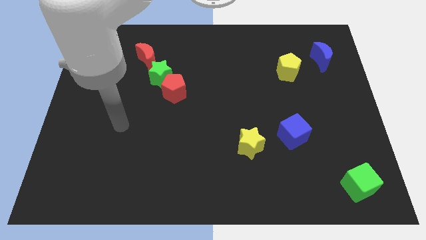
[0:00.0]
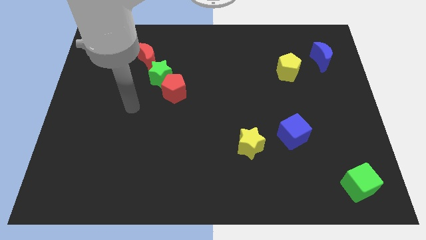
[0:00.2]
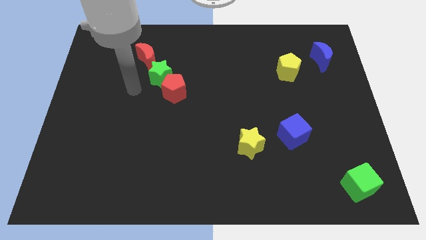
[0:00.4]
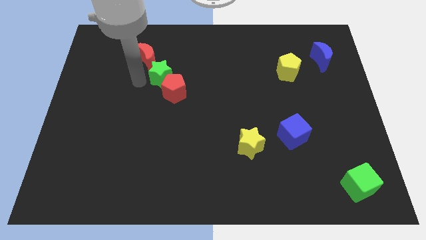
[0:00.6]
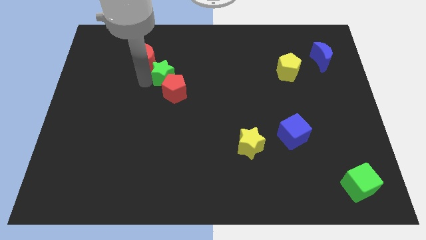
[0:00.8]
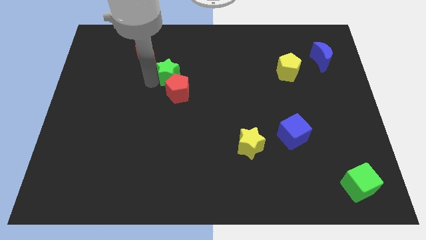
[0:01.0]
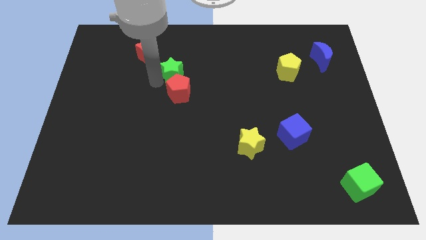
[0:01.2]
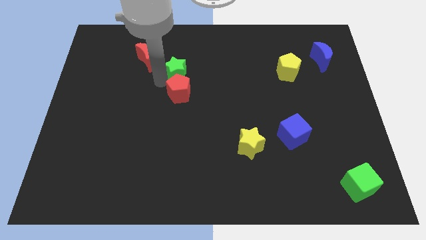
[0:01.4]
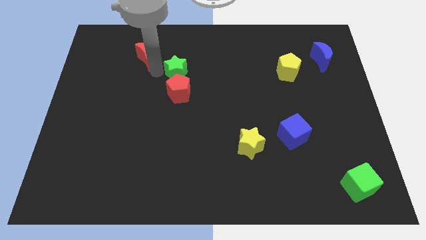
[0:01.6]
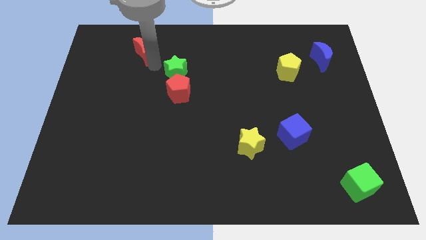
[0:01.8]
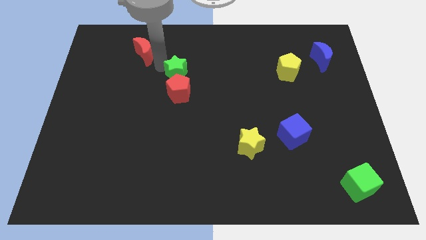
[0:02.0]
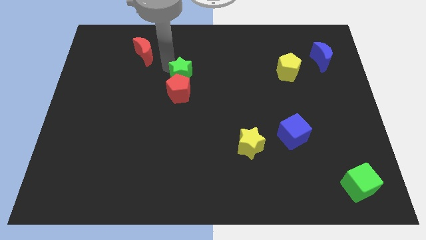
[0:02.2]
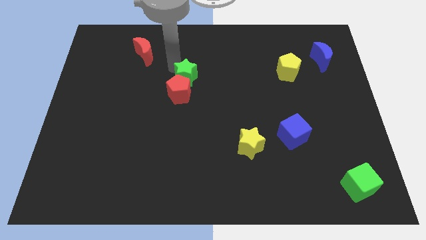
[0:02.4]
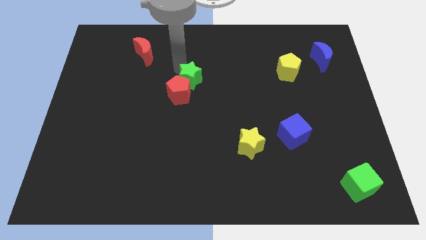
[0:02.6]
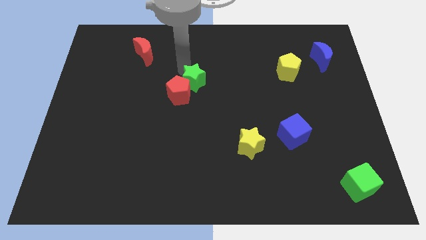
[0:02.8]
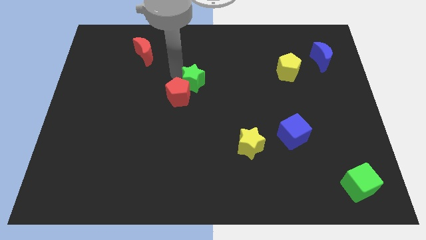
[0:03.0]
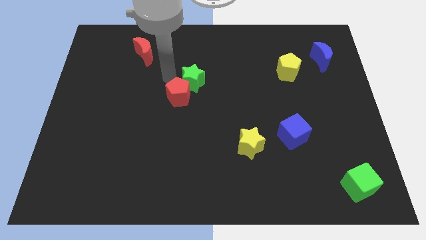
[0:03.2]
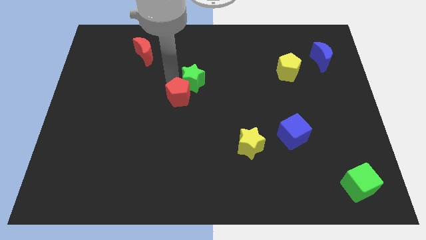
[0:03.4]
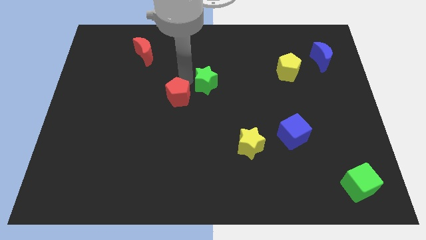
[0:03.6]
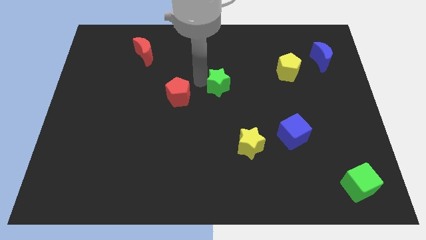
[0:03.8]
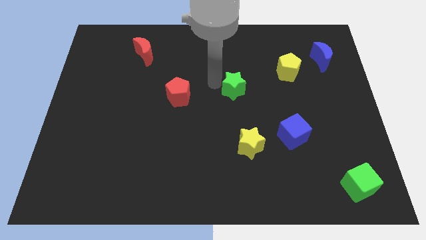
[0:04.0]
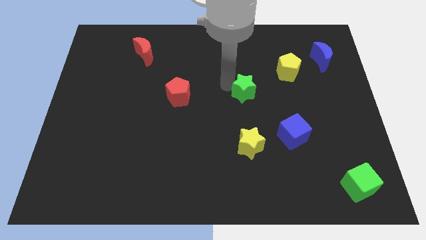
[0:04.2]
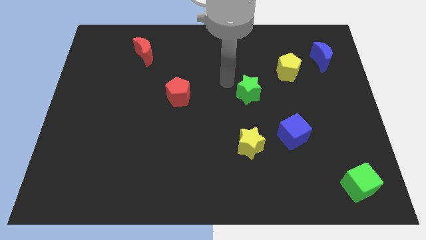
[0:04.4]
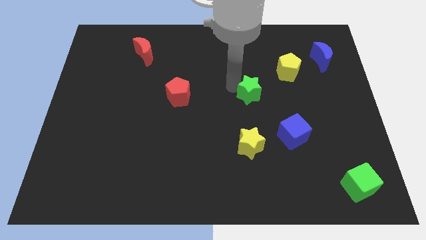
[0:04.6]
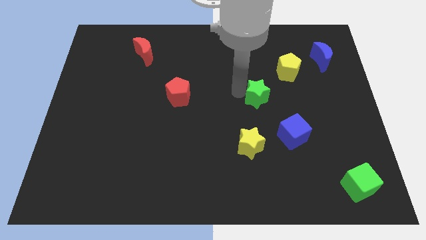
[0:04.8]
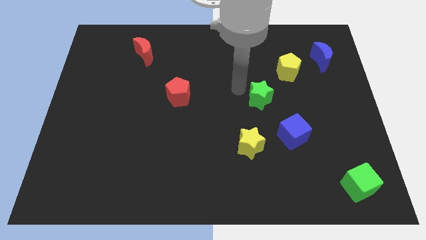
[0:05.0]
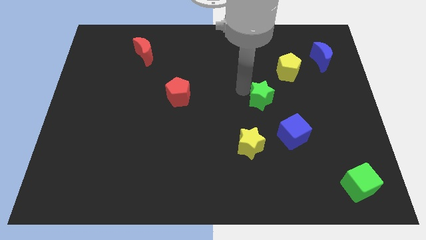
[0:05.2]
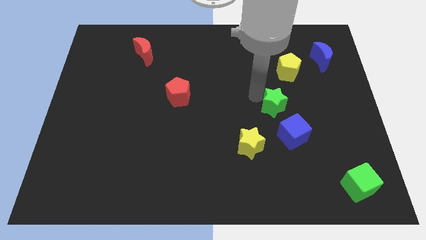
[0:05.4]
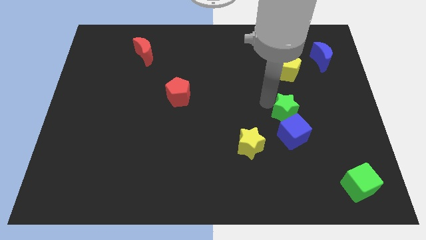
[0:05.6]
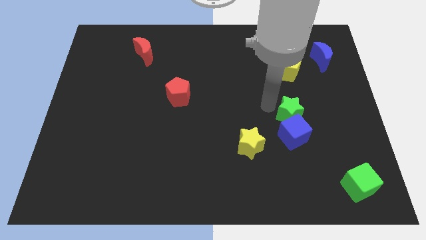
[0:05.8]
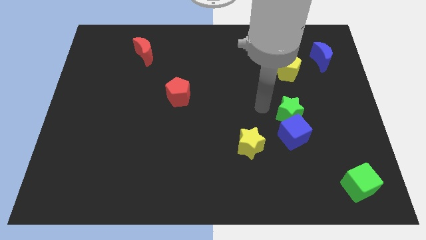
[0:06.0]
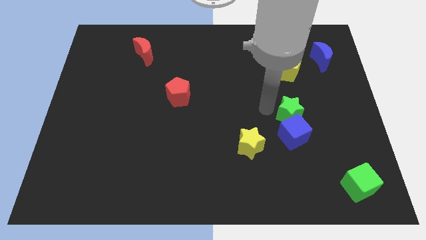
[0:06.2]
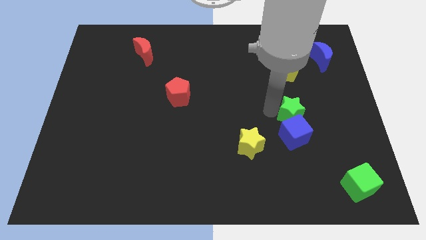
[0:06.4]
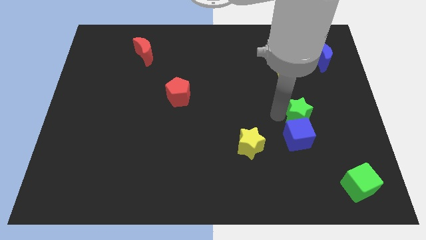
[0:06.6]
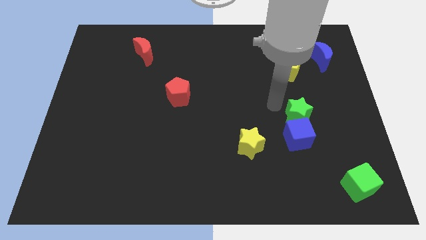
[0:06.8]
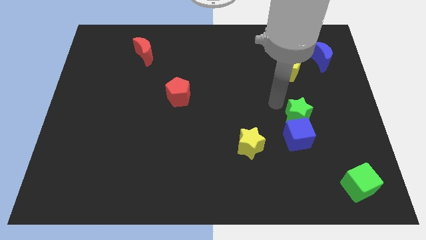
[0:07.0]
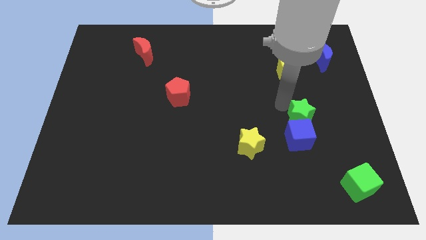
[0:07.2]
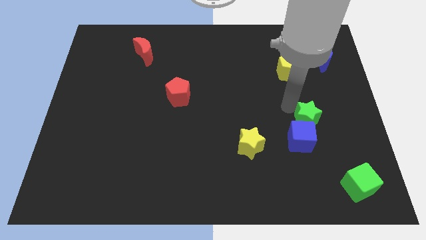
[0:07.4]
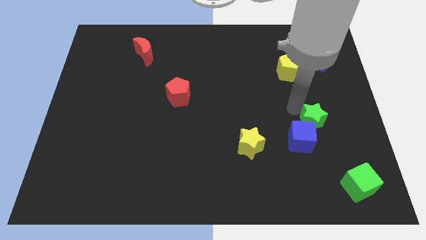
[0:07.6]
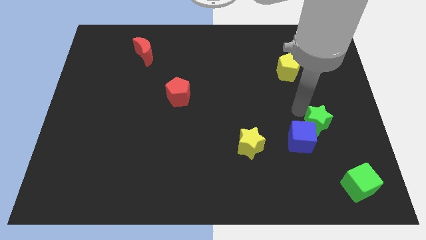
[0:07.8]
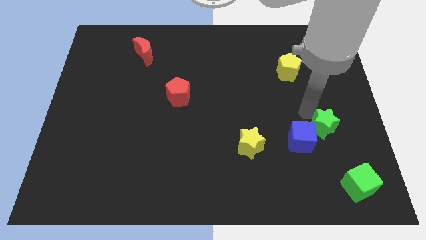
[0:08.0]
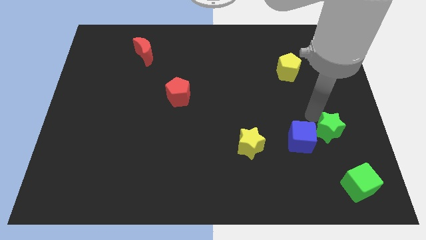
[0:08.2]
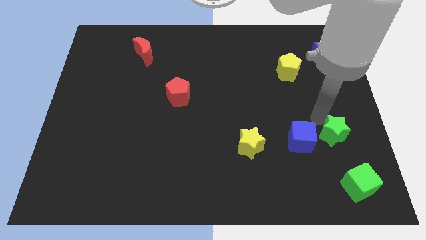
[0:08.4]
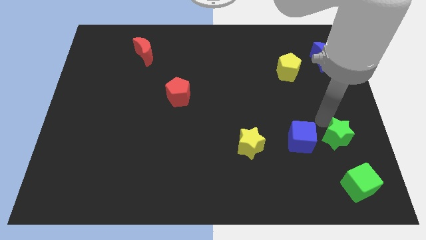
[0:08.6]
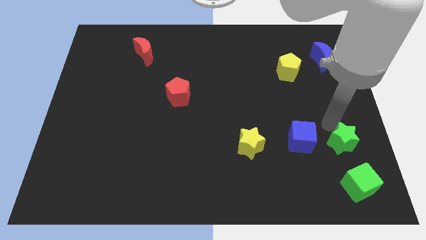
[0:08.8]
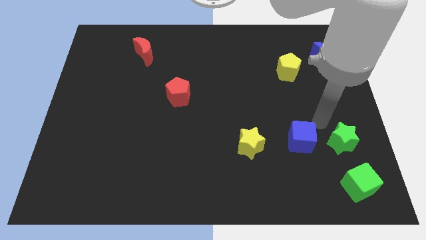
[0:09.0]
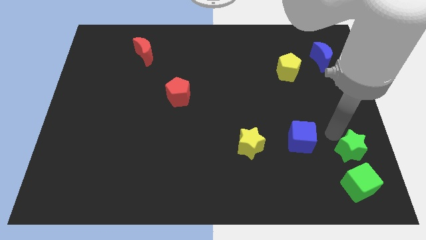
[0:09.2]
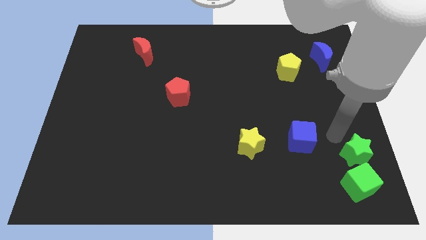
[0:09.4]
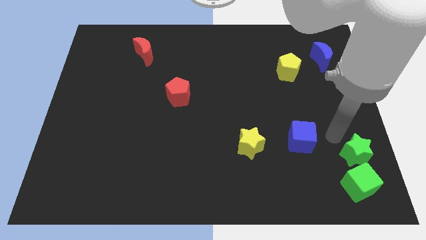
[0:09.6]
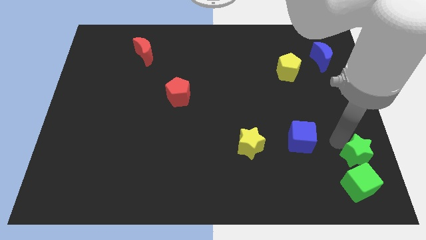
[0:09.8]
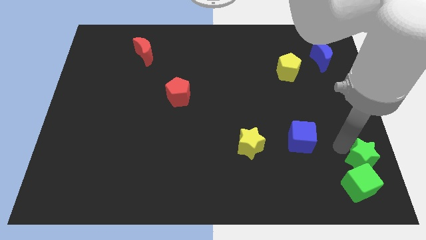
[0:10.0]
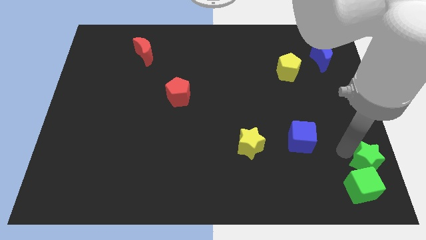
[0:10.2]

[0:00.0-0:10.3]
slide the green star to the bottom right of the board

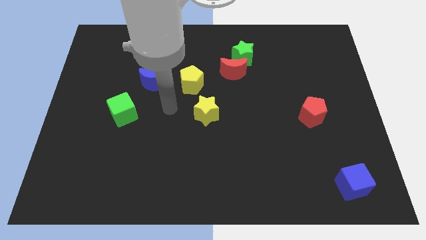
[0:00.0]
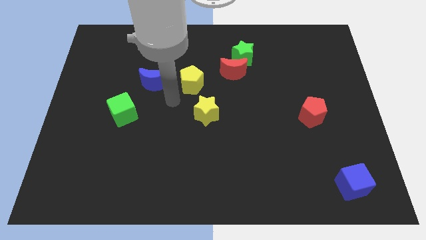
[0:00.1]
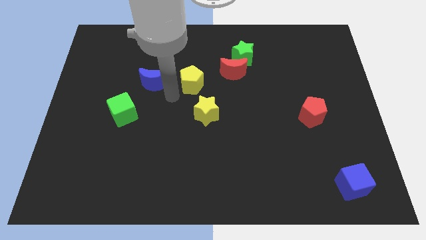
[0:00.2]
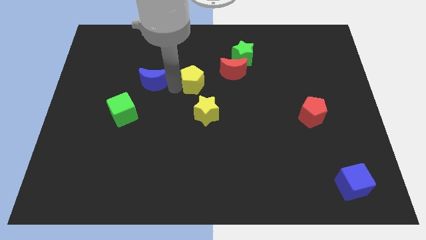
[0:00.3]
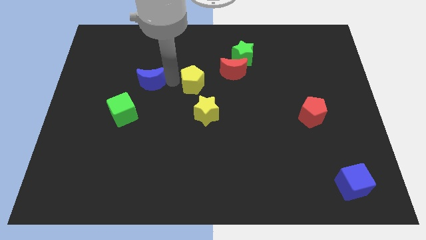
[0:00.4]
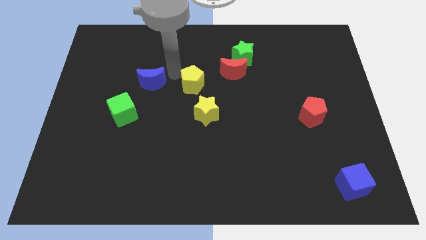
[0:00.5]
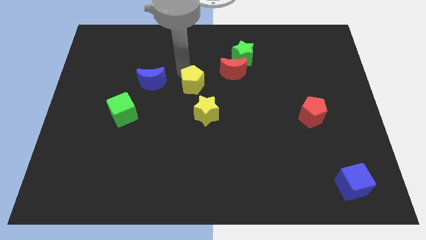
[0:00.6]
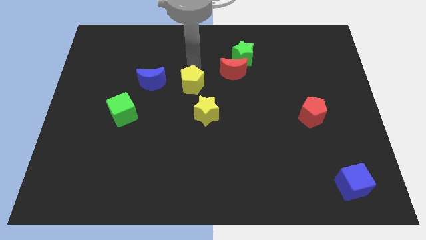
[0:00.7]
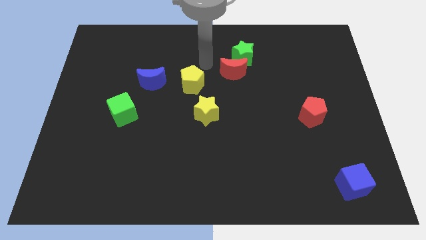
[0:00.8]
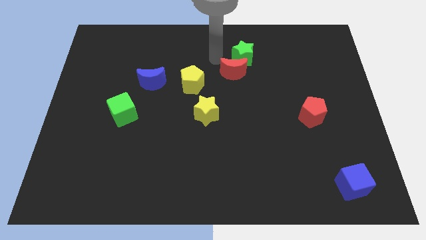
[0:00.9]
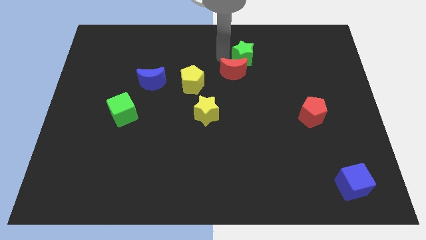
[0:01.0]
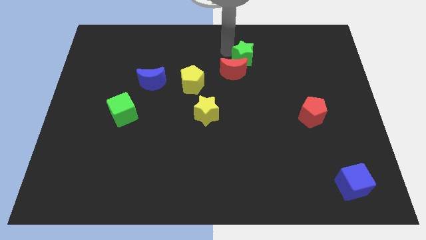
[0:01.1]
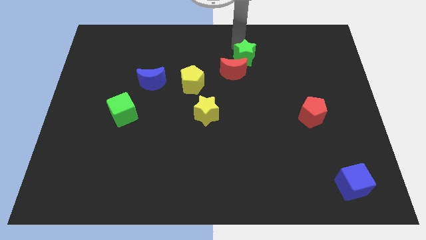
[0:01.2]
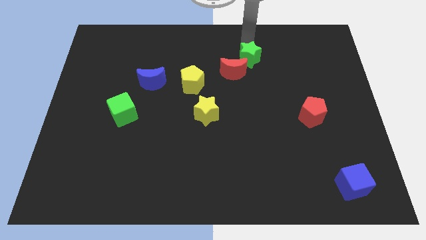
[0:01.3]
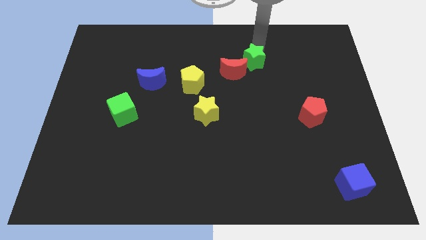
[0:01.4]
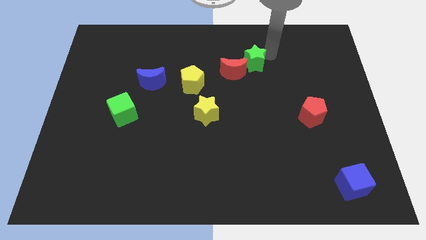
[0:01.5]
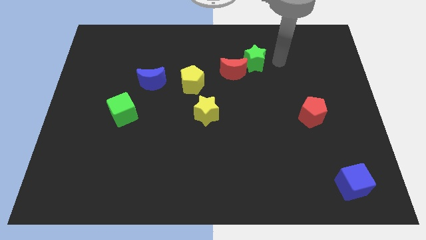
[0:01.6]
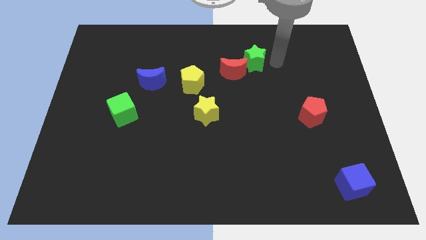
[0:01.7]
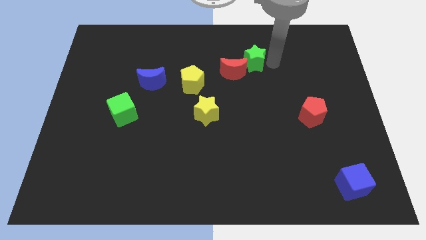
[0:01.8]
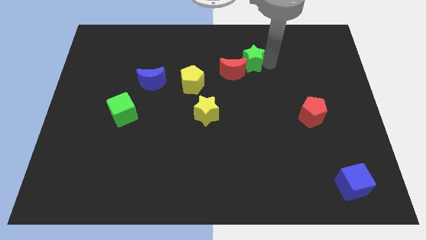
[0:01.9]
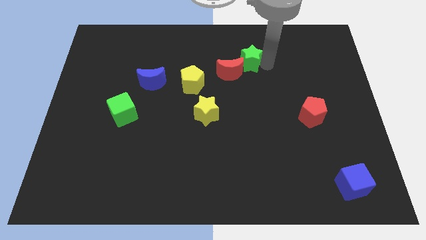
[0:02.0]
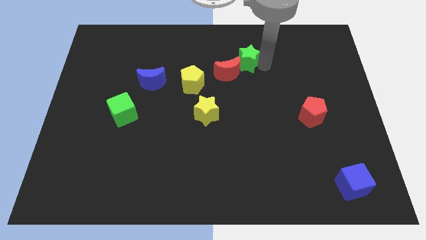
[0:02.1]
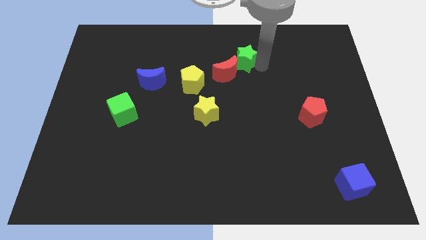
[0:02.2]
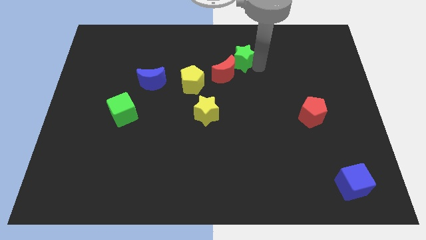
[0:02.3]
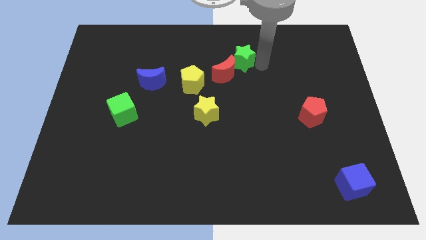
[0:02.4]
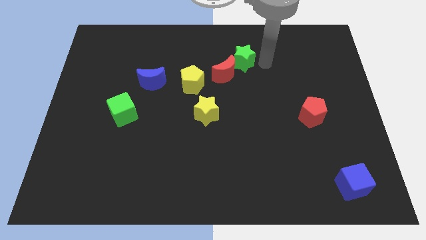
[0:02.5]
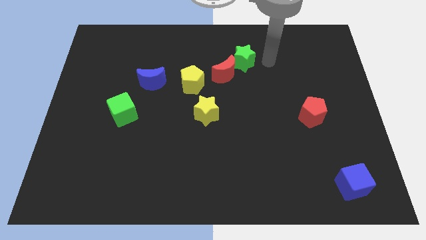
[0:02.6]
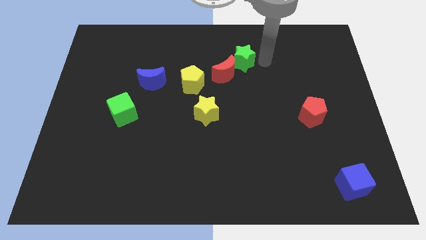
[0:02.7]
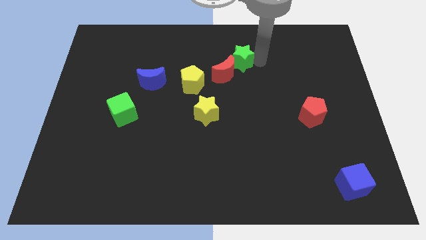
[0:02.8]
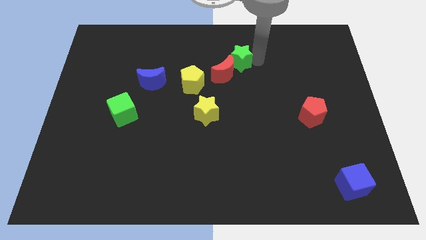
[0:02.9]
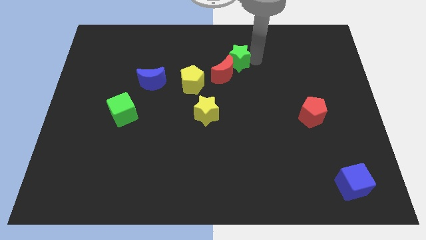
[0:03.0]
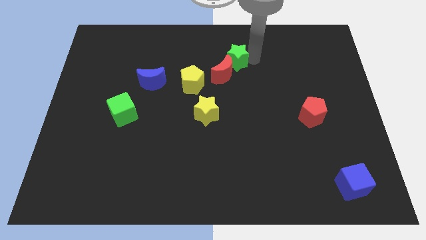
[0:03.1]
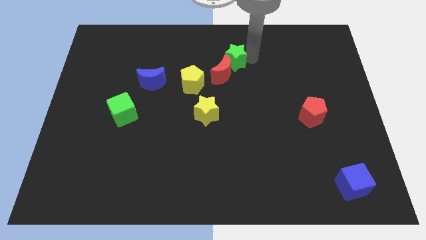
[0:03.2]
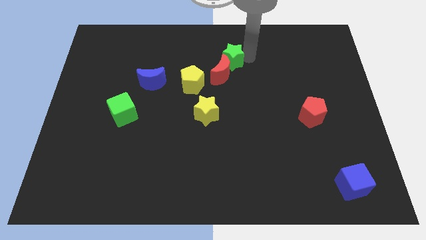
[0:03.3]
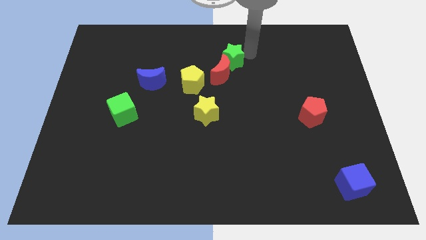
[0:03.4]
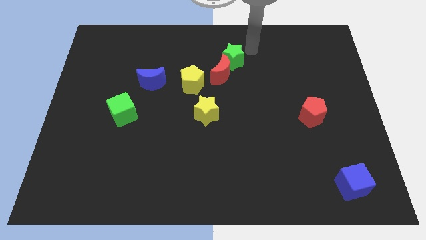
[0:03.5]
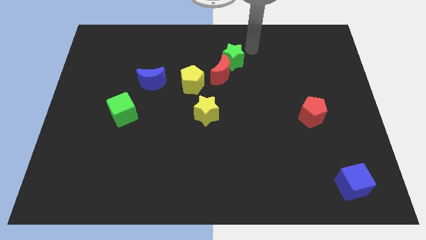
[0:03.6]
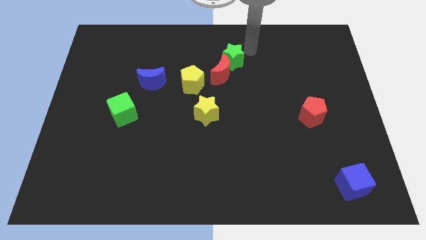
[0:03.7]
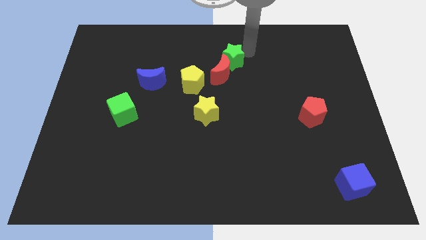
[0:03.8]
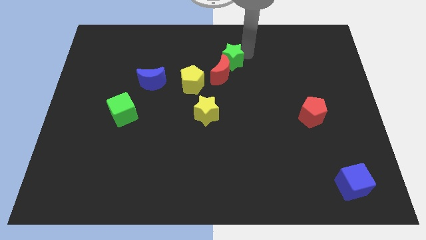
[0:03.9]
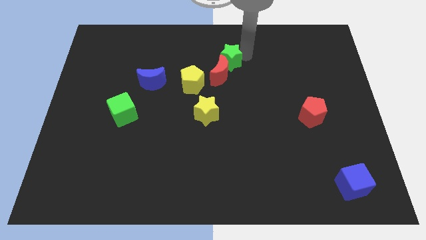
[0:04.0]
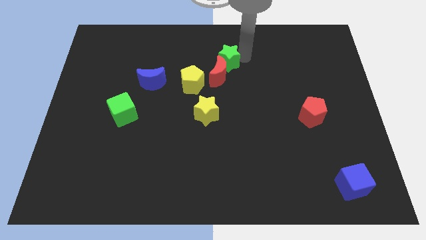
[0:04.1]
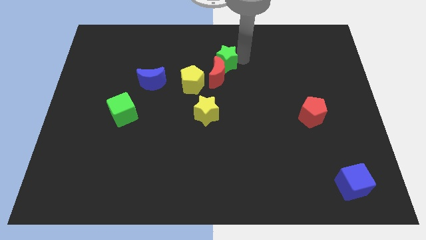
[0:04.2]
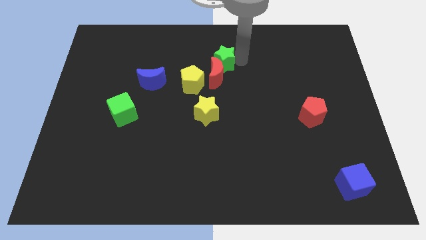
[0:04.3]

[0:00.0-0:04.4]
move the green star to the center
